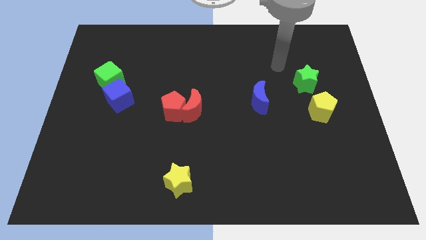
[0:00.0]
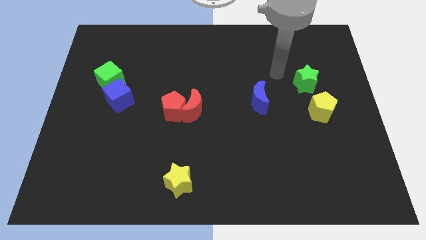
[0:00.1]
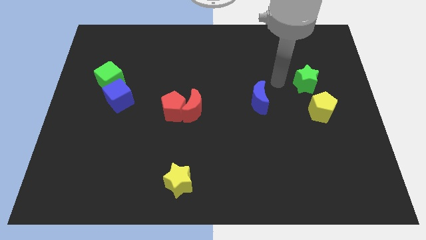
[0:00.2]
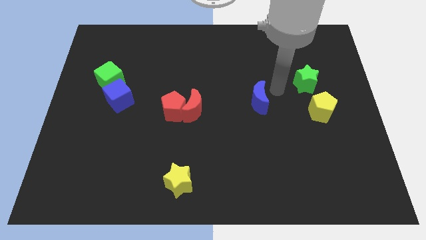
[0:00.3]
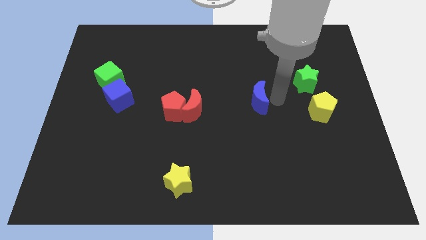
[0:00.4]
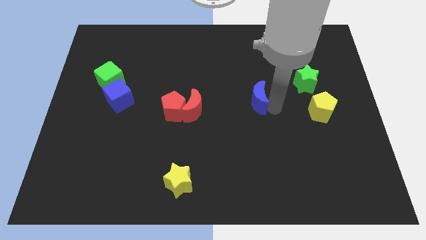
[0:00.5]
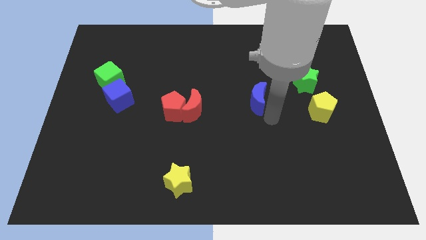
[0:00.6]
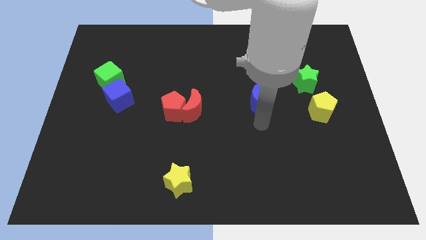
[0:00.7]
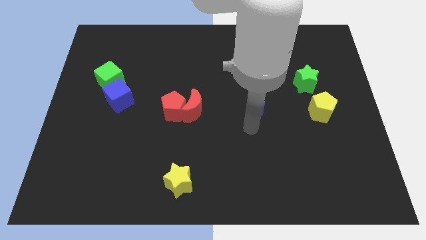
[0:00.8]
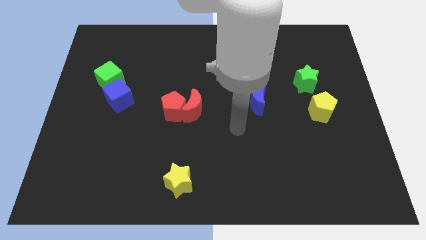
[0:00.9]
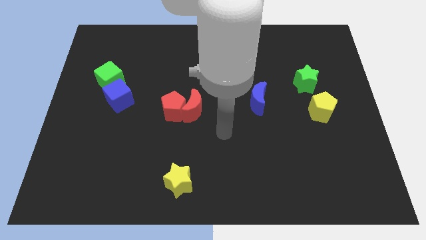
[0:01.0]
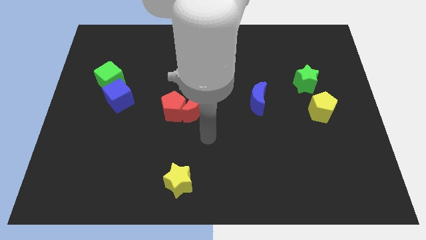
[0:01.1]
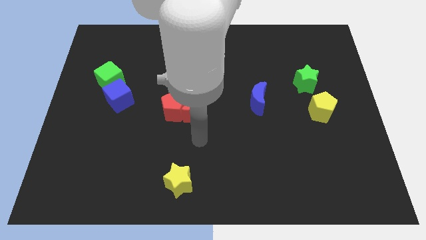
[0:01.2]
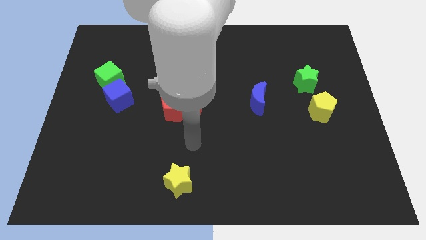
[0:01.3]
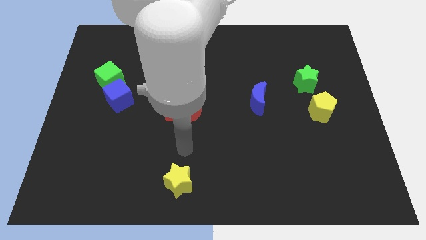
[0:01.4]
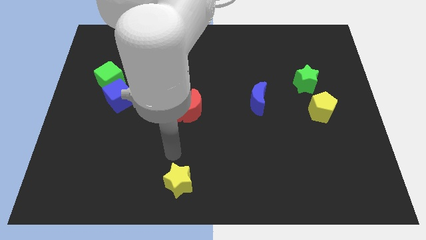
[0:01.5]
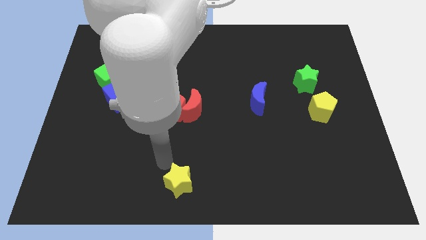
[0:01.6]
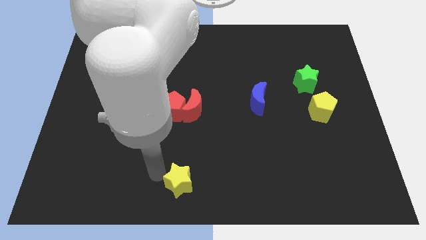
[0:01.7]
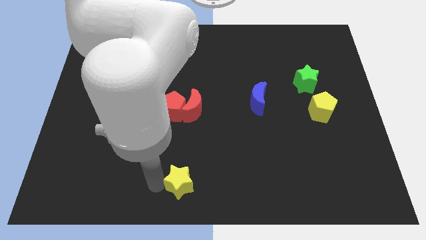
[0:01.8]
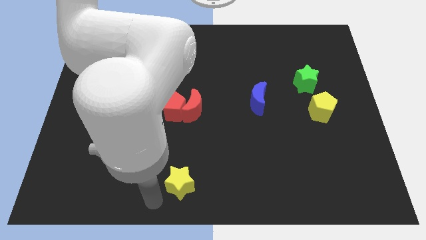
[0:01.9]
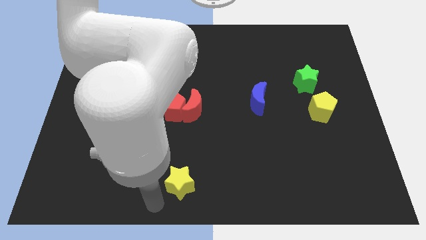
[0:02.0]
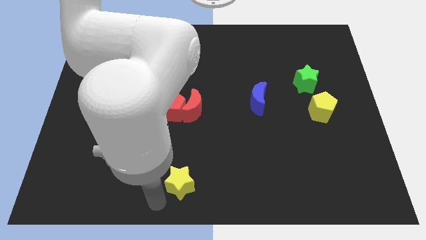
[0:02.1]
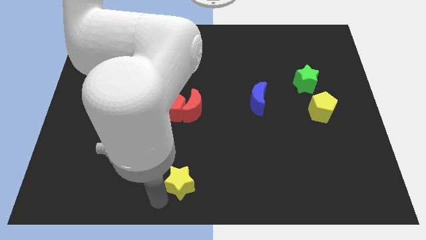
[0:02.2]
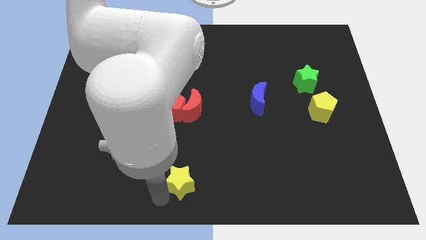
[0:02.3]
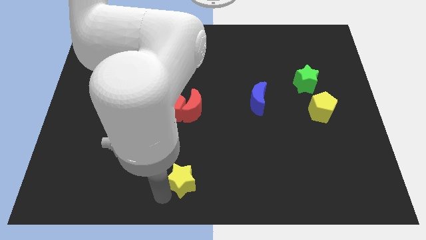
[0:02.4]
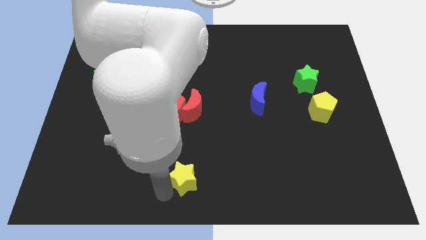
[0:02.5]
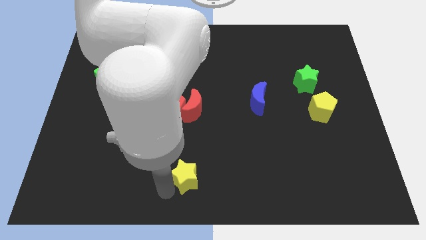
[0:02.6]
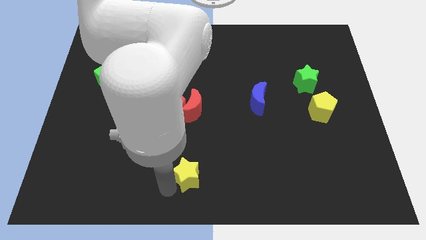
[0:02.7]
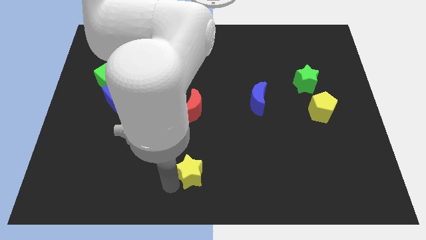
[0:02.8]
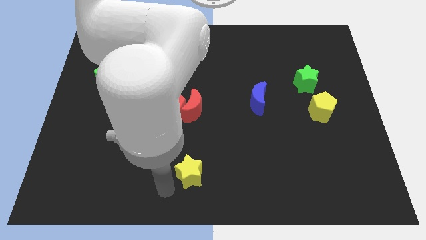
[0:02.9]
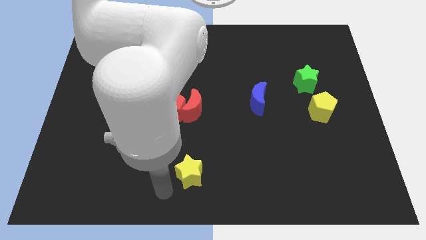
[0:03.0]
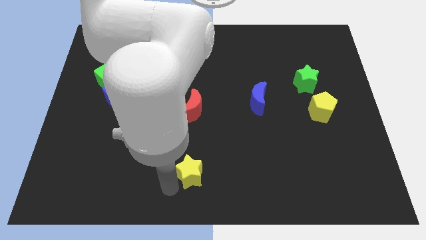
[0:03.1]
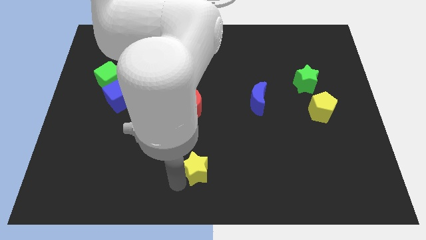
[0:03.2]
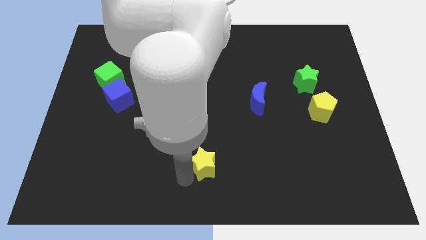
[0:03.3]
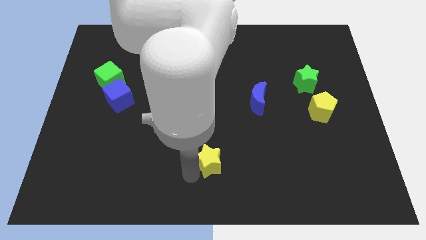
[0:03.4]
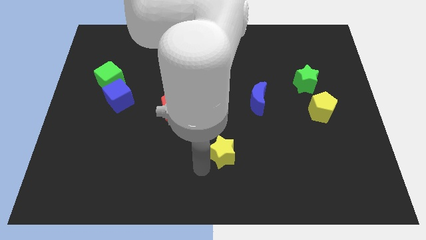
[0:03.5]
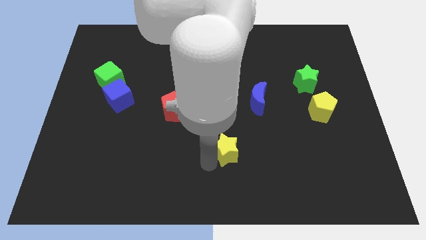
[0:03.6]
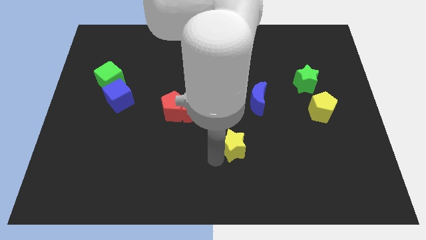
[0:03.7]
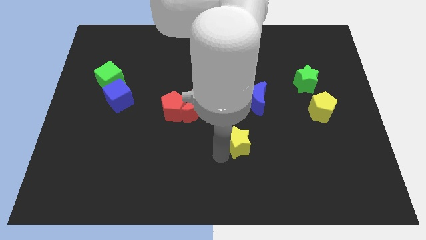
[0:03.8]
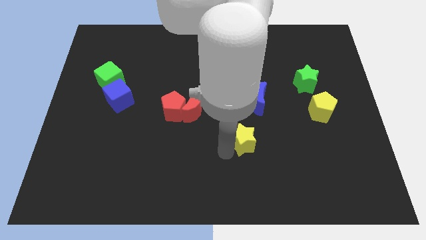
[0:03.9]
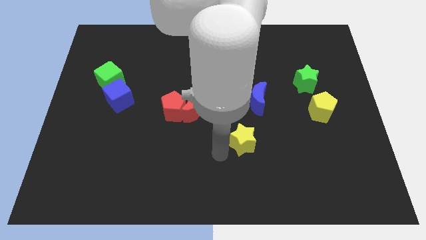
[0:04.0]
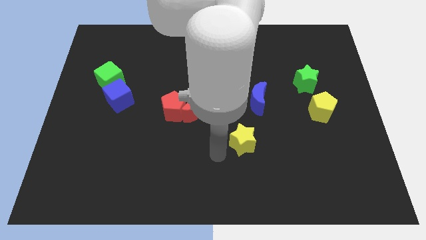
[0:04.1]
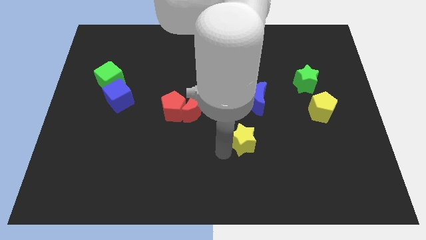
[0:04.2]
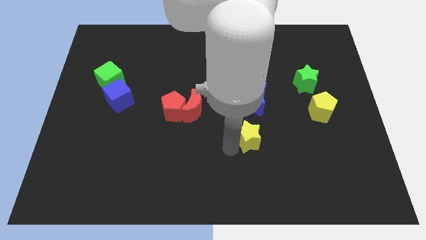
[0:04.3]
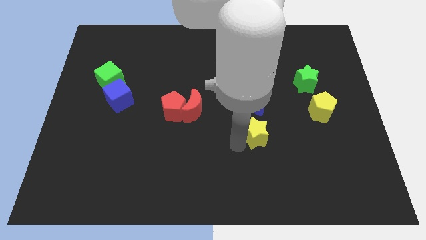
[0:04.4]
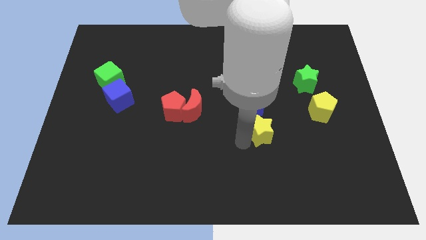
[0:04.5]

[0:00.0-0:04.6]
slide the yellow star diagonally upwards and right

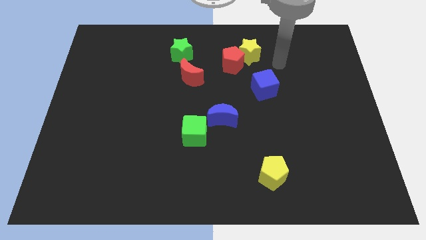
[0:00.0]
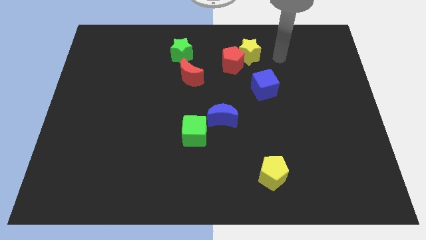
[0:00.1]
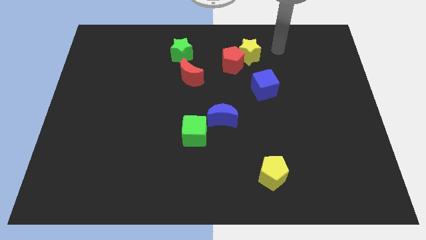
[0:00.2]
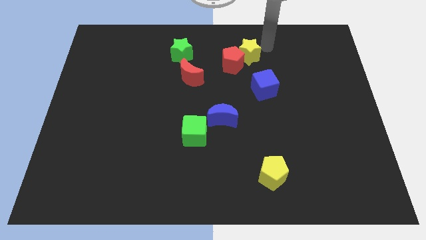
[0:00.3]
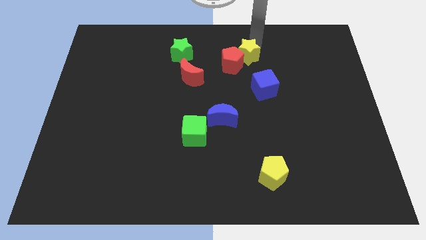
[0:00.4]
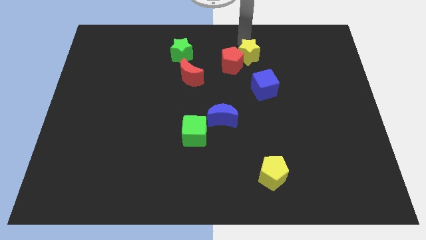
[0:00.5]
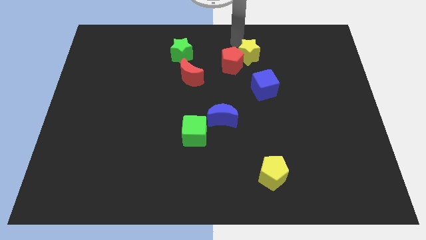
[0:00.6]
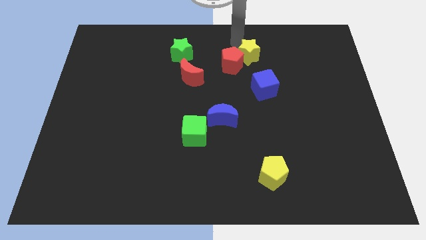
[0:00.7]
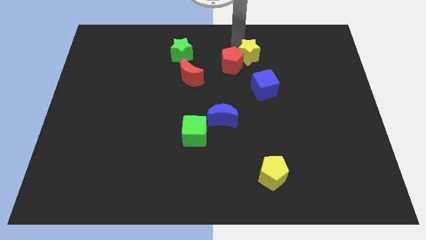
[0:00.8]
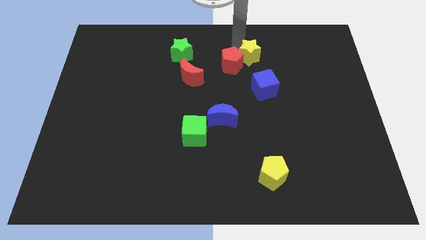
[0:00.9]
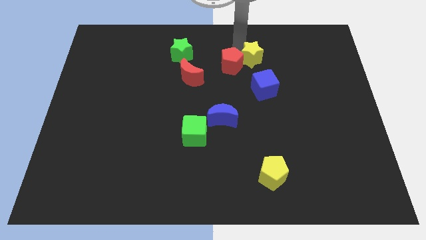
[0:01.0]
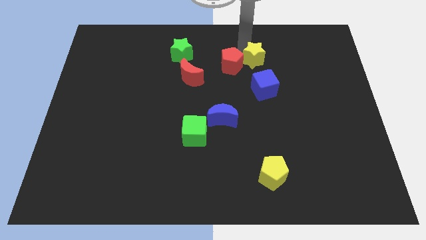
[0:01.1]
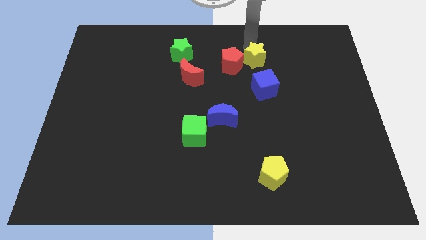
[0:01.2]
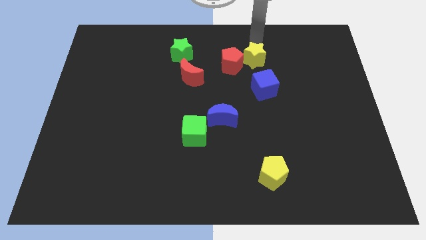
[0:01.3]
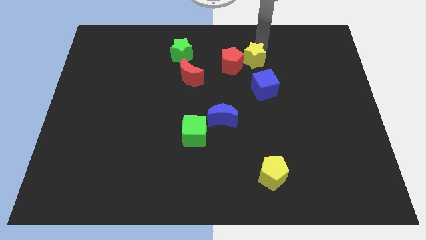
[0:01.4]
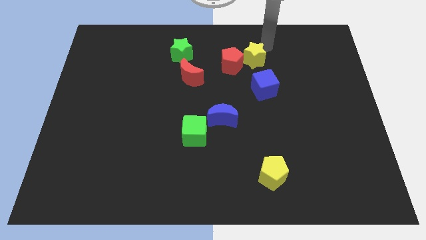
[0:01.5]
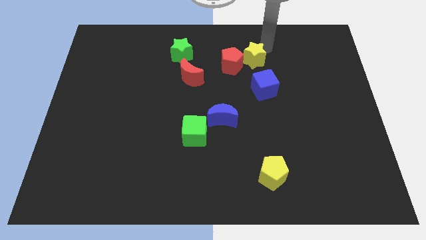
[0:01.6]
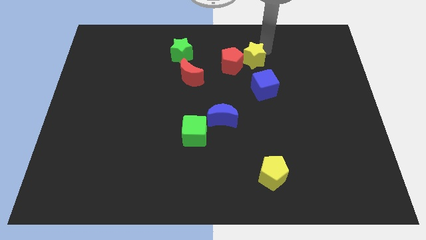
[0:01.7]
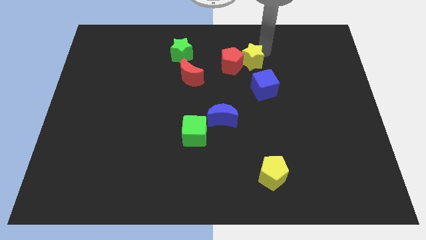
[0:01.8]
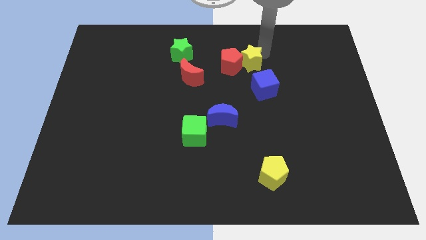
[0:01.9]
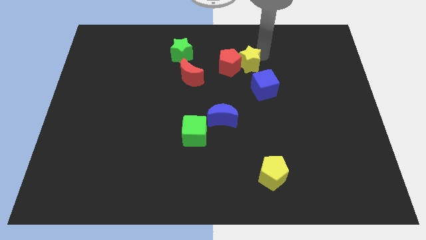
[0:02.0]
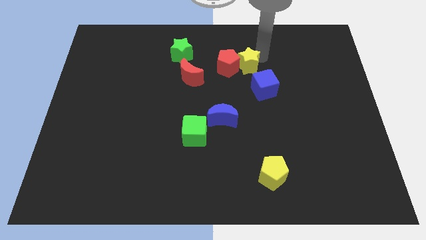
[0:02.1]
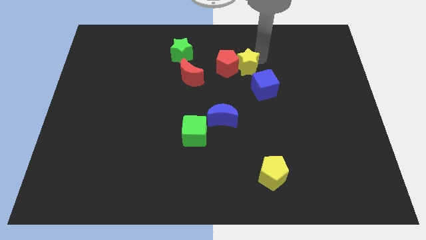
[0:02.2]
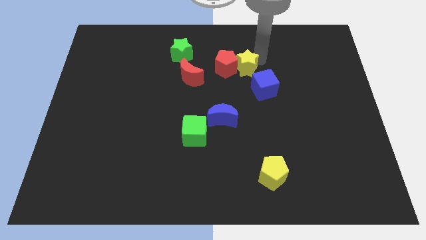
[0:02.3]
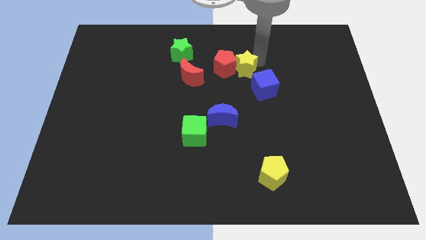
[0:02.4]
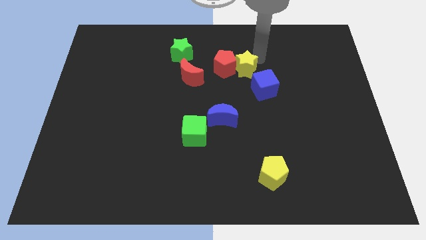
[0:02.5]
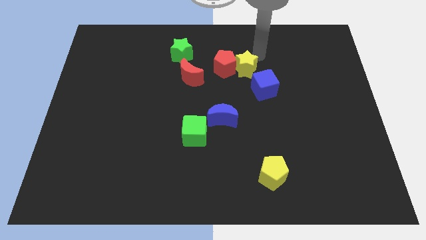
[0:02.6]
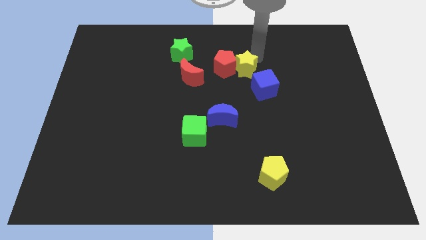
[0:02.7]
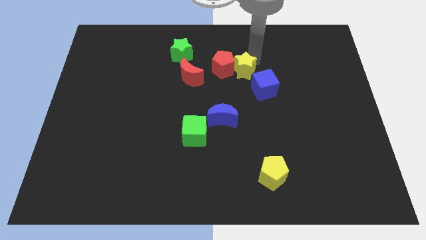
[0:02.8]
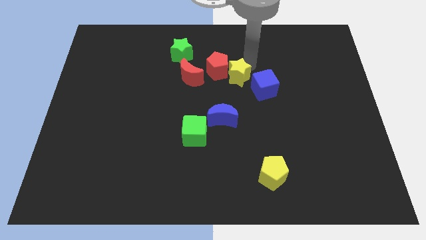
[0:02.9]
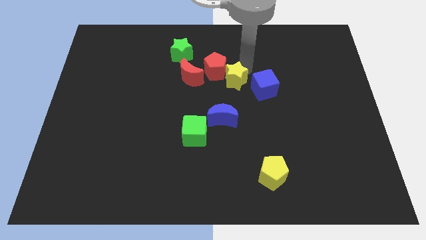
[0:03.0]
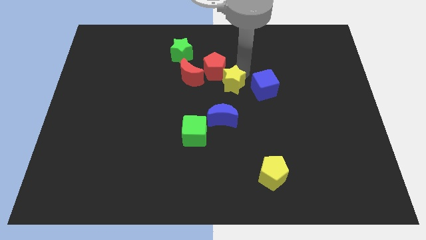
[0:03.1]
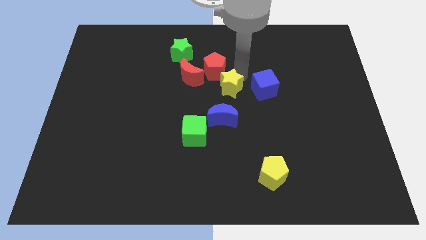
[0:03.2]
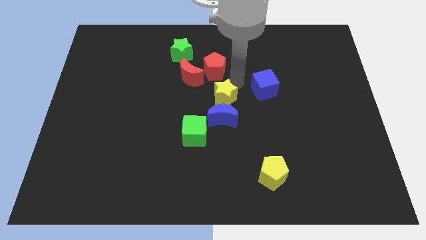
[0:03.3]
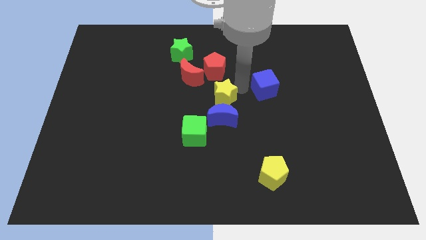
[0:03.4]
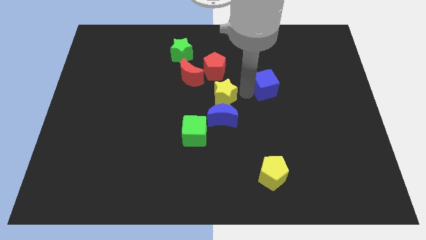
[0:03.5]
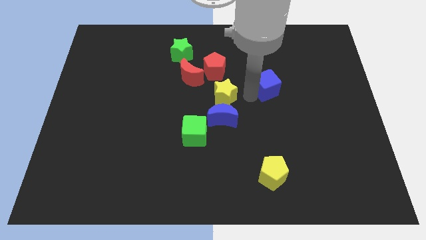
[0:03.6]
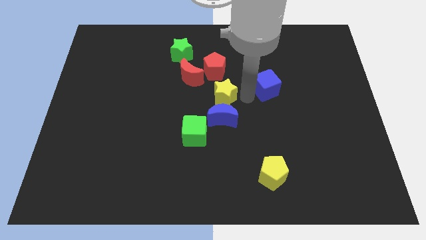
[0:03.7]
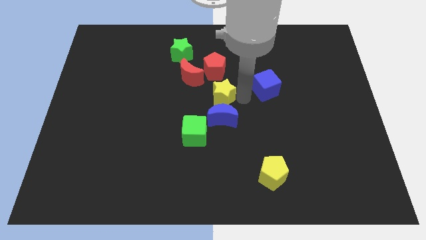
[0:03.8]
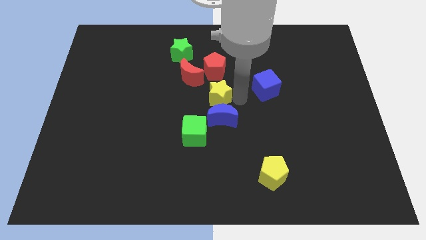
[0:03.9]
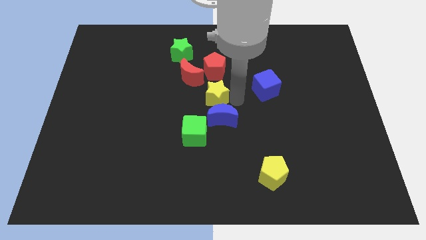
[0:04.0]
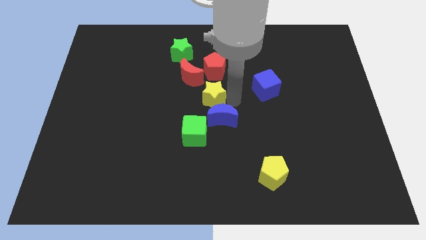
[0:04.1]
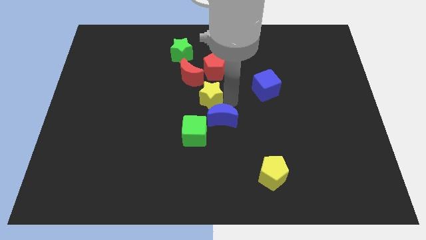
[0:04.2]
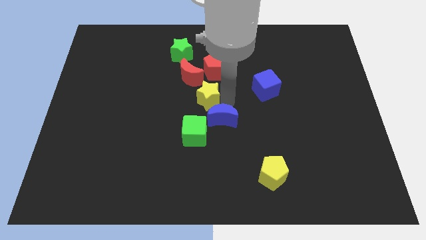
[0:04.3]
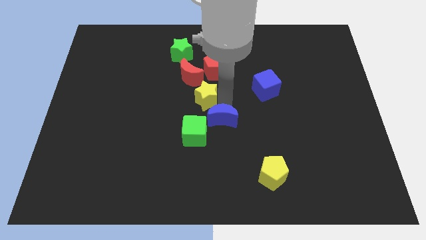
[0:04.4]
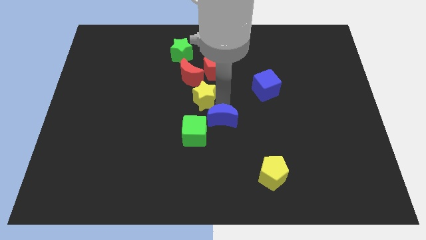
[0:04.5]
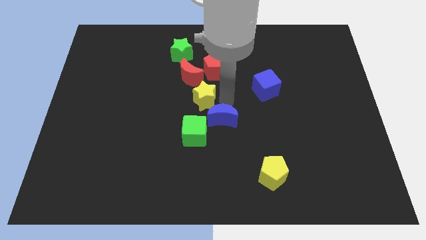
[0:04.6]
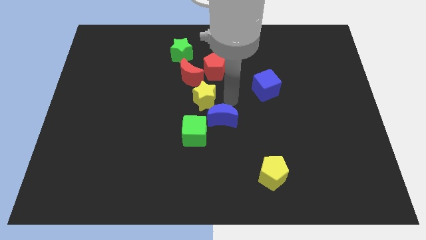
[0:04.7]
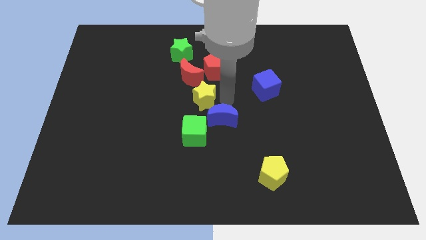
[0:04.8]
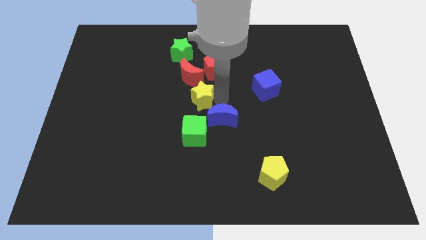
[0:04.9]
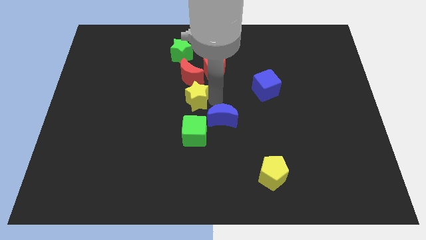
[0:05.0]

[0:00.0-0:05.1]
push the yellow star downwards and left
